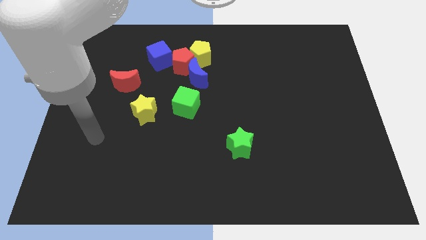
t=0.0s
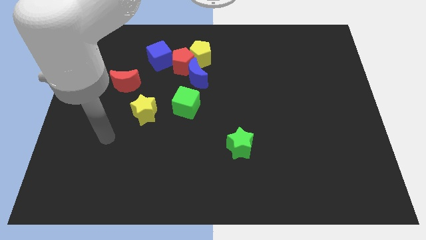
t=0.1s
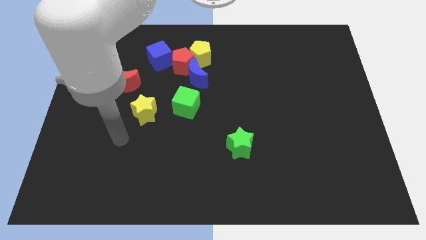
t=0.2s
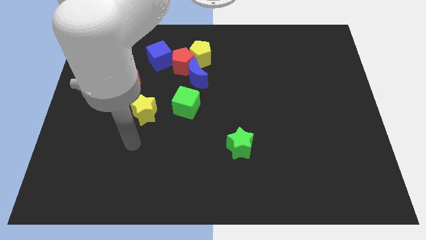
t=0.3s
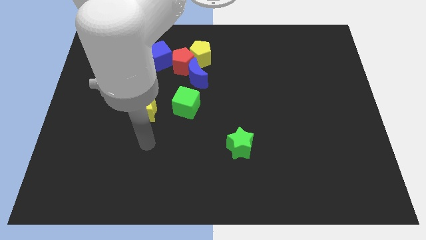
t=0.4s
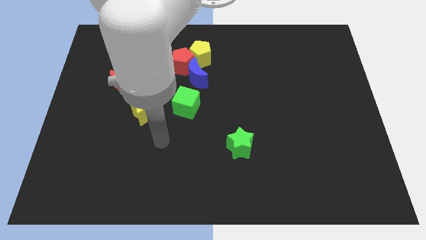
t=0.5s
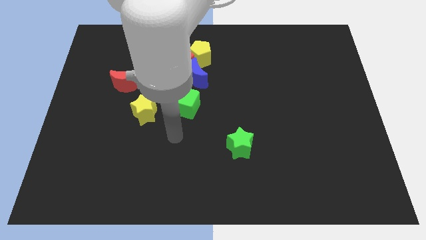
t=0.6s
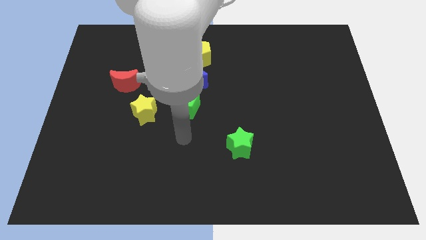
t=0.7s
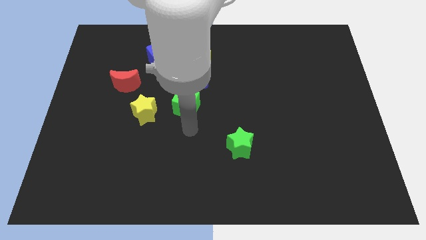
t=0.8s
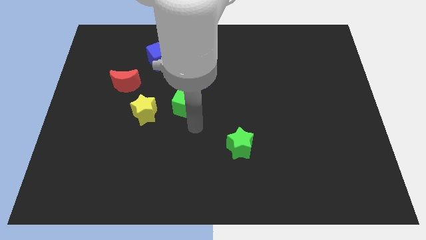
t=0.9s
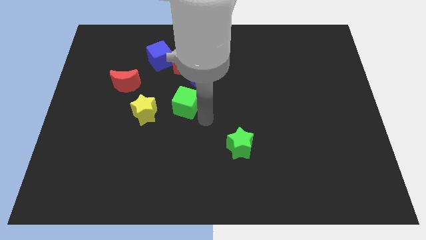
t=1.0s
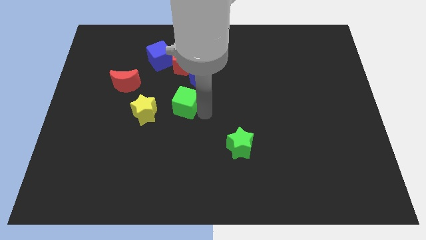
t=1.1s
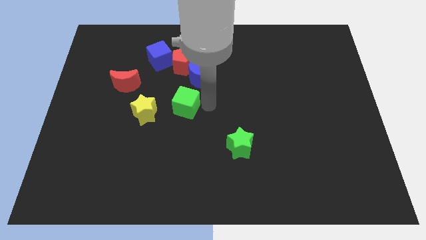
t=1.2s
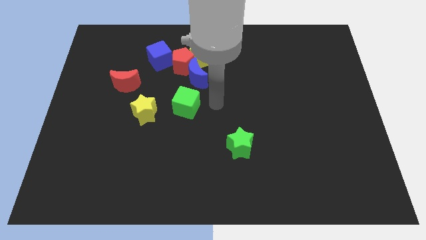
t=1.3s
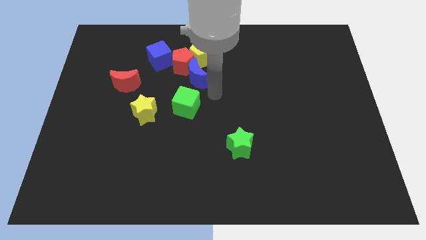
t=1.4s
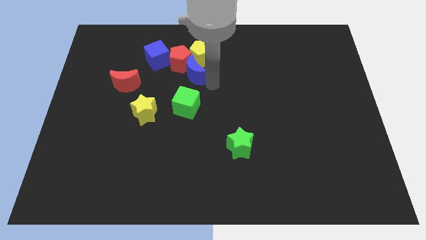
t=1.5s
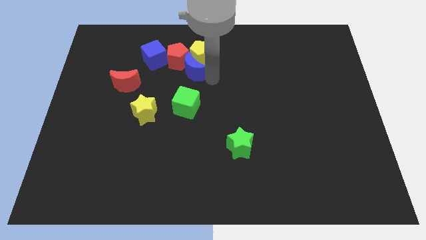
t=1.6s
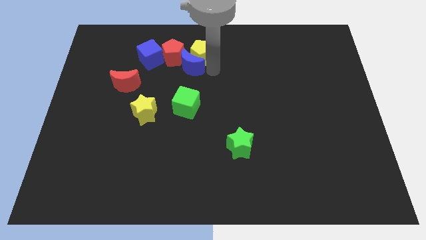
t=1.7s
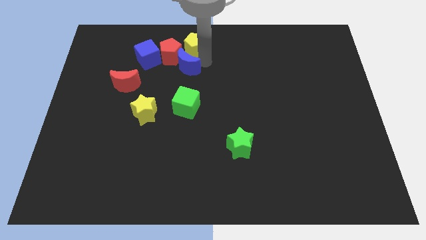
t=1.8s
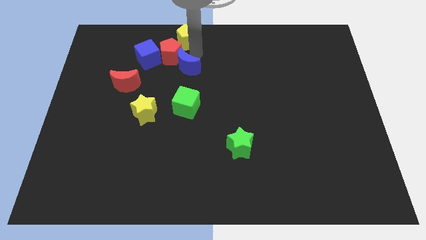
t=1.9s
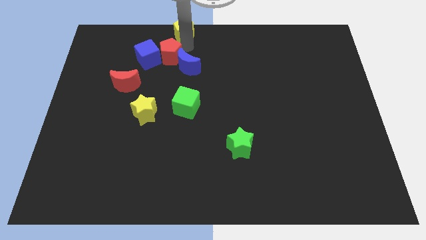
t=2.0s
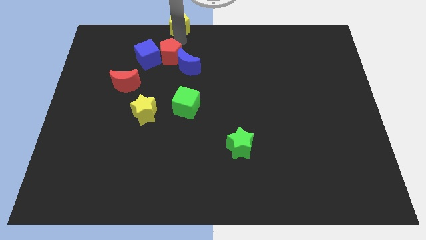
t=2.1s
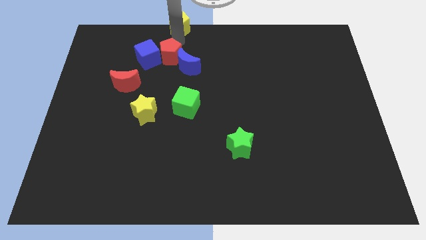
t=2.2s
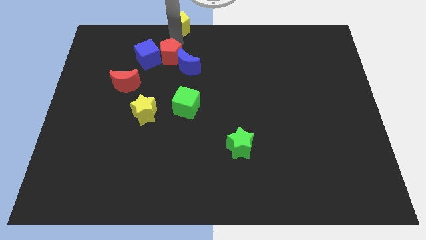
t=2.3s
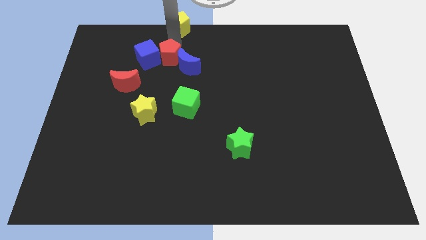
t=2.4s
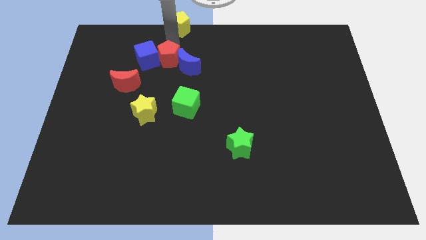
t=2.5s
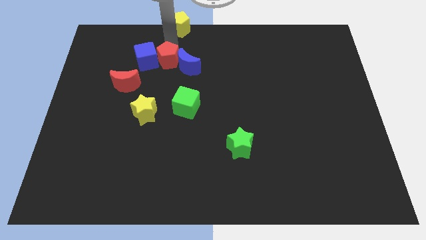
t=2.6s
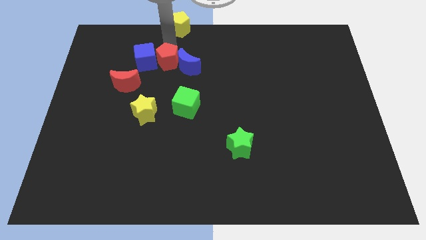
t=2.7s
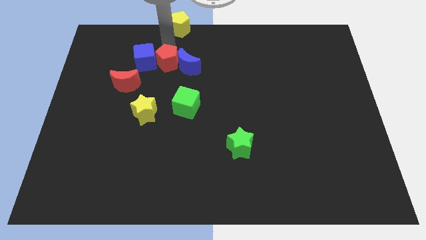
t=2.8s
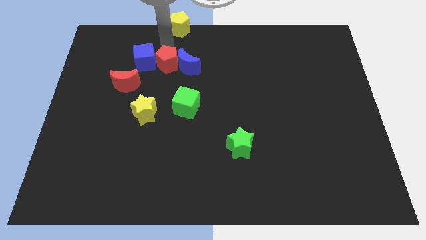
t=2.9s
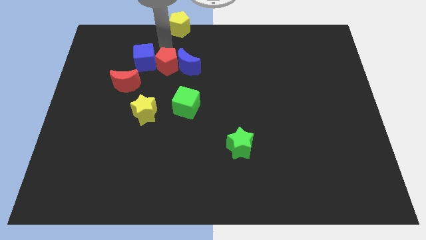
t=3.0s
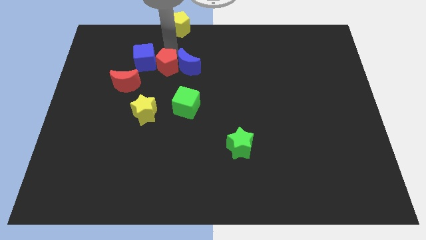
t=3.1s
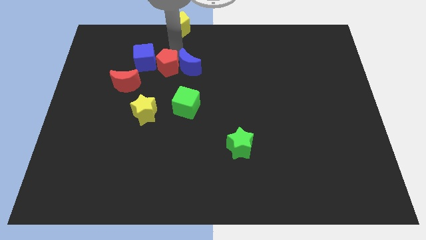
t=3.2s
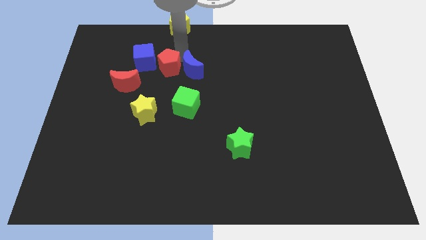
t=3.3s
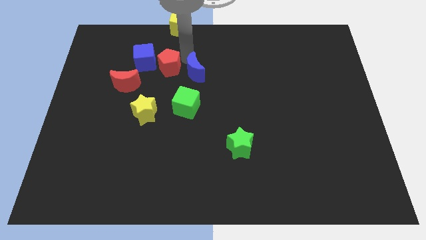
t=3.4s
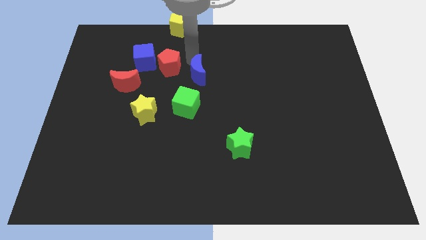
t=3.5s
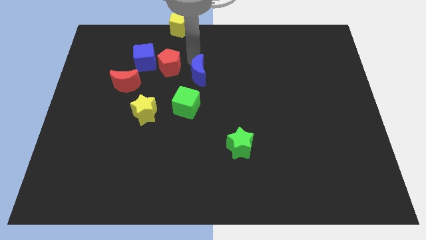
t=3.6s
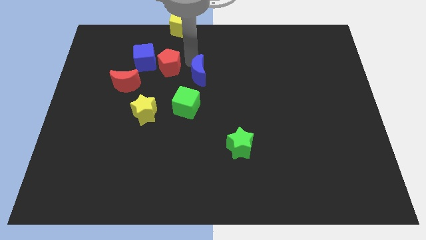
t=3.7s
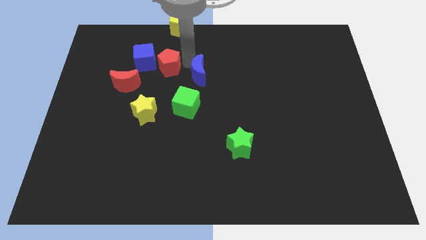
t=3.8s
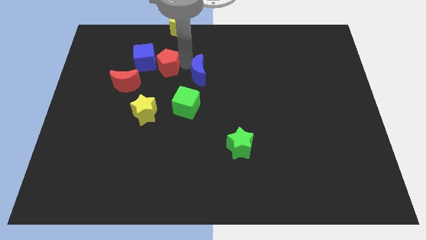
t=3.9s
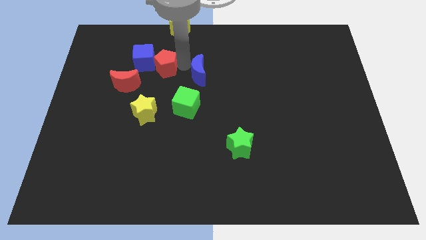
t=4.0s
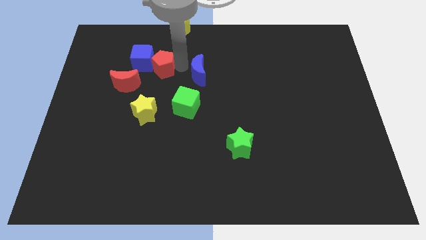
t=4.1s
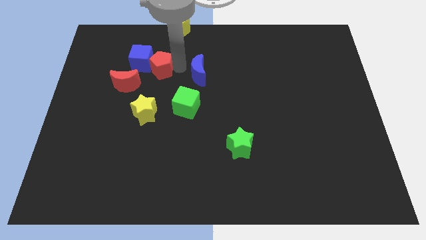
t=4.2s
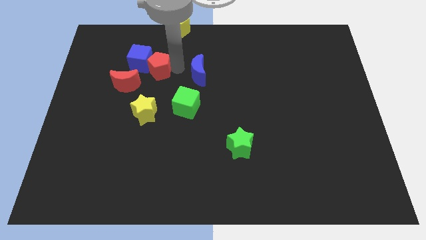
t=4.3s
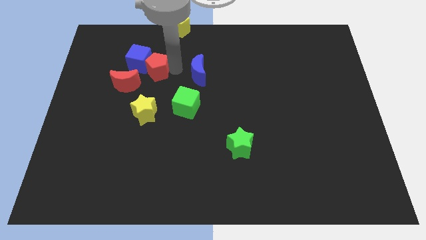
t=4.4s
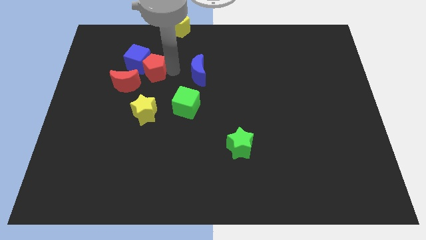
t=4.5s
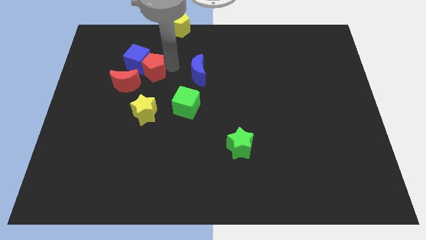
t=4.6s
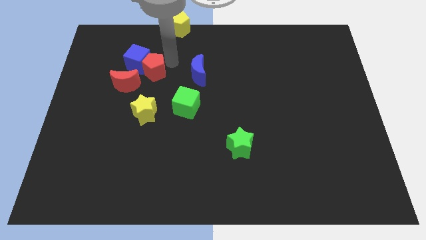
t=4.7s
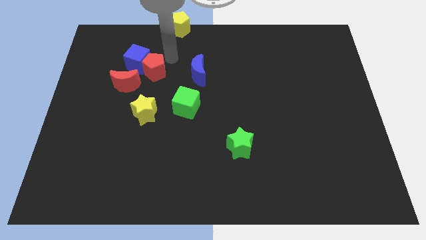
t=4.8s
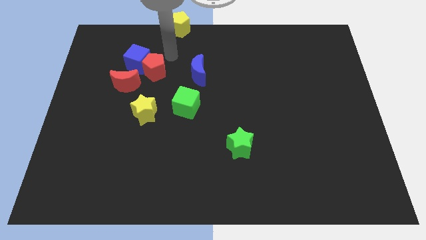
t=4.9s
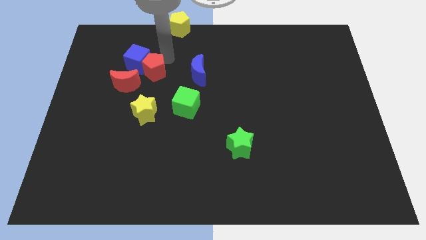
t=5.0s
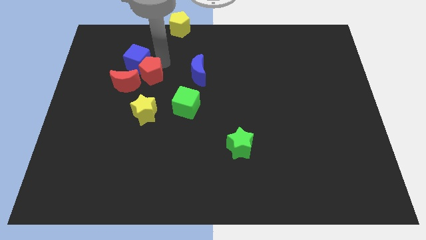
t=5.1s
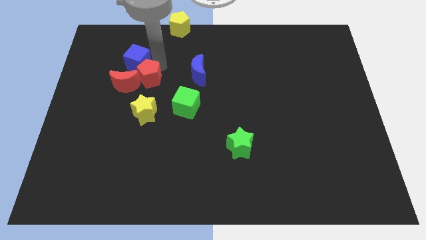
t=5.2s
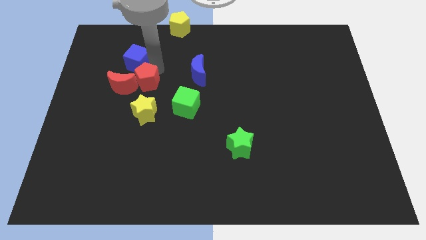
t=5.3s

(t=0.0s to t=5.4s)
separate the red pentagon from the group of blocks

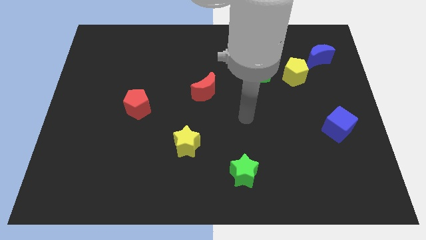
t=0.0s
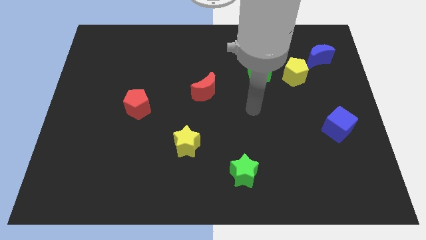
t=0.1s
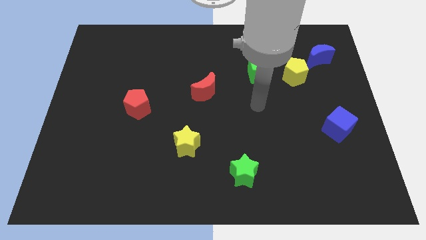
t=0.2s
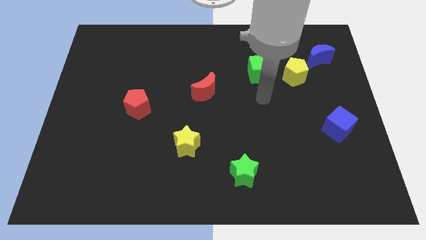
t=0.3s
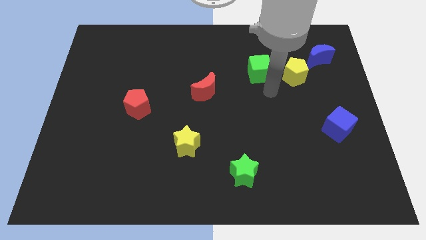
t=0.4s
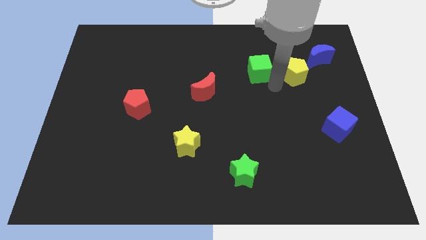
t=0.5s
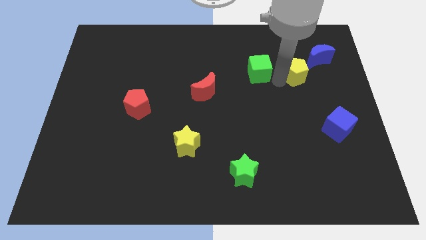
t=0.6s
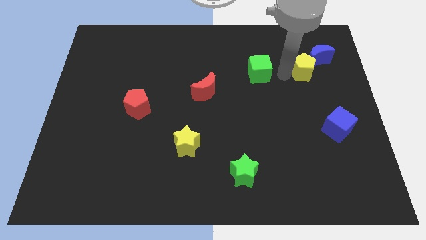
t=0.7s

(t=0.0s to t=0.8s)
pull the green cube apart from the yellow pentagon

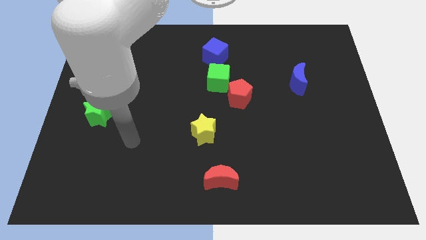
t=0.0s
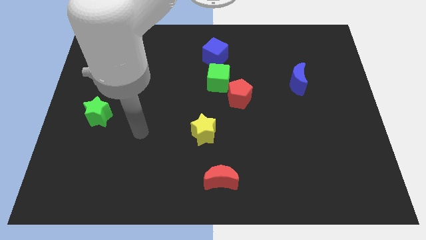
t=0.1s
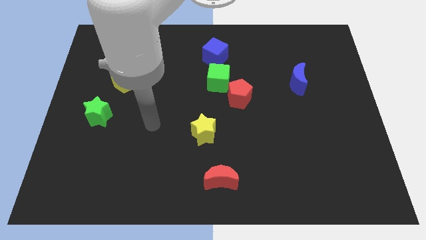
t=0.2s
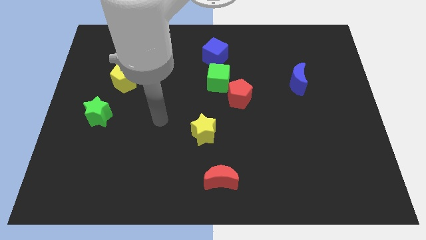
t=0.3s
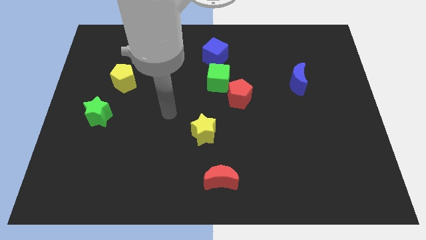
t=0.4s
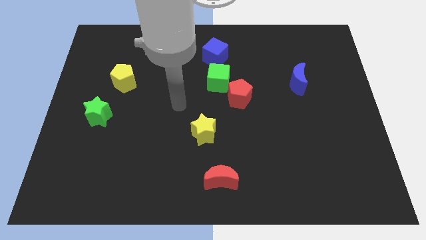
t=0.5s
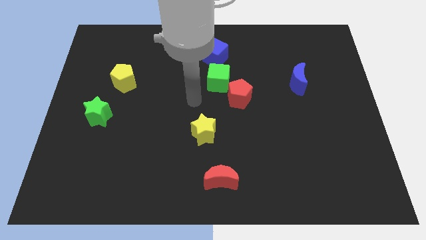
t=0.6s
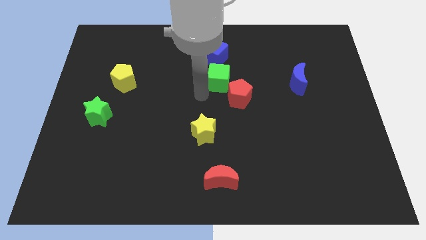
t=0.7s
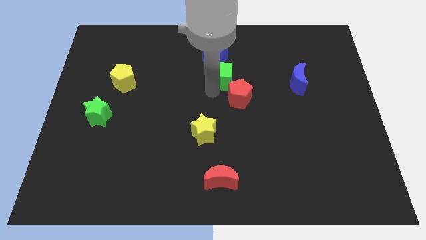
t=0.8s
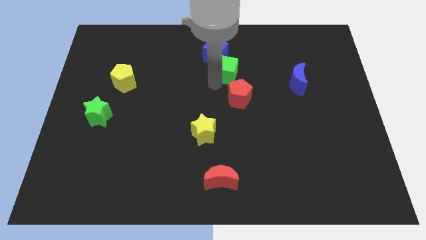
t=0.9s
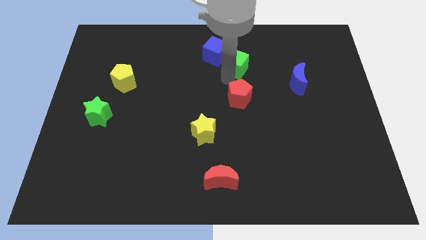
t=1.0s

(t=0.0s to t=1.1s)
separate the red pentagon from the green cube

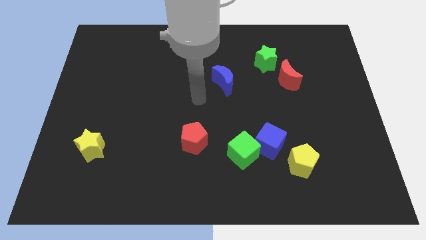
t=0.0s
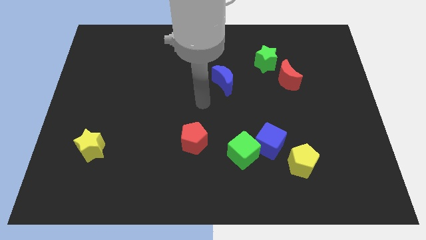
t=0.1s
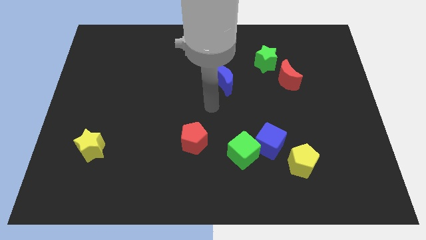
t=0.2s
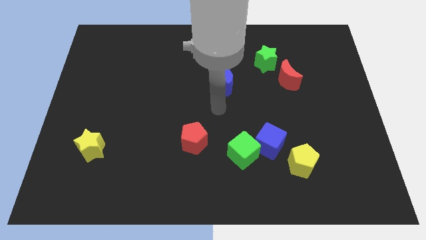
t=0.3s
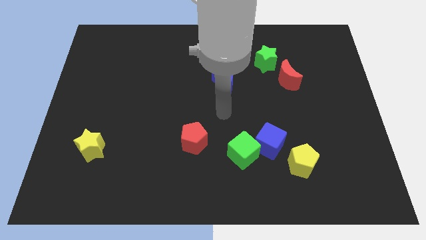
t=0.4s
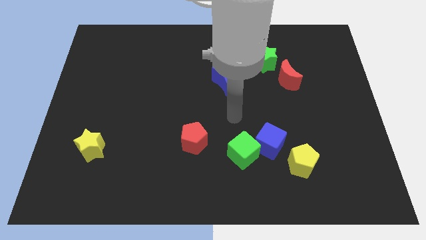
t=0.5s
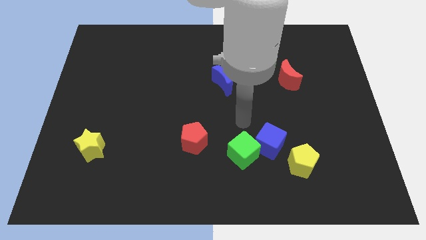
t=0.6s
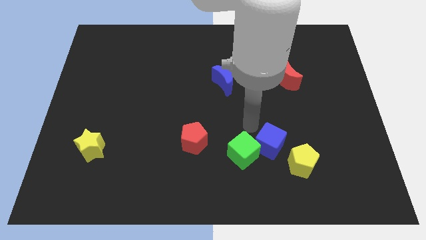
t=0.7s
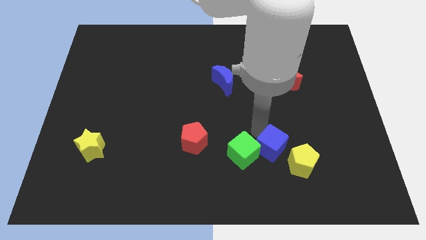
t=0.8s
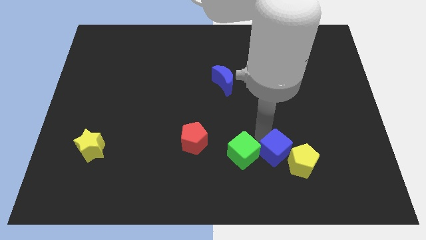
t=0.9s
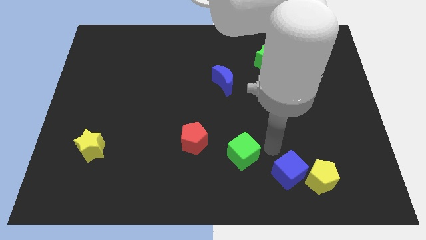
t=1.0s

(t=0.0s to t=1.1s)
separate the green cube from the blue cube

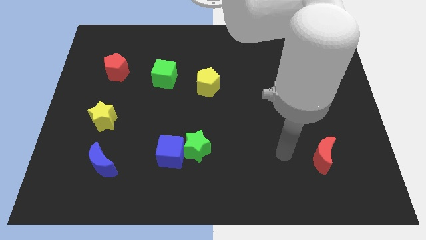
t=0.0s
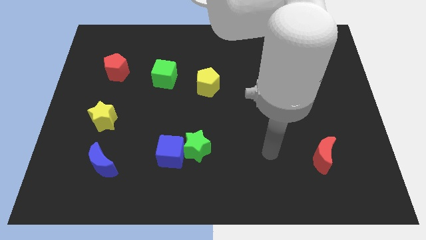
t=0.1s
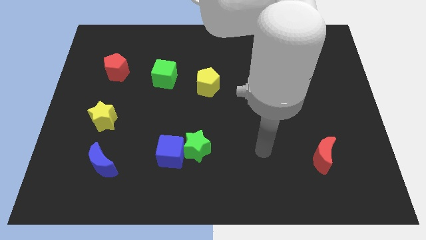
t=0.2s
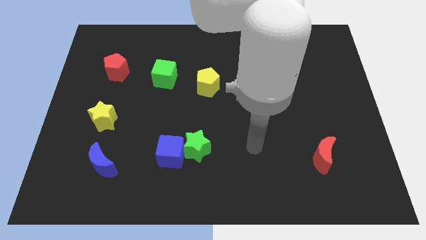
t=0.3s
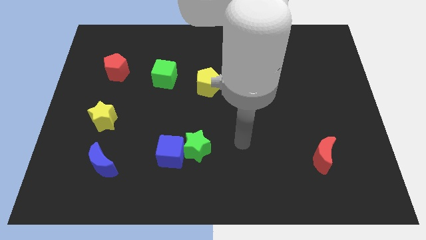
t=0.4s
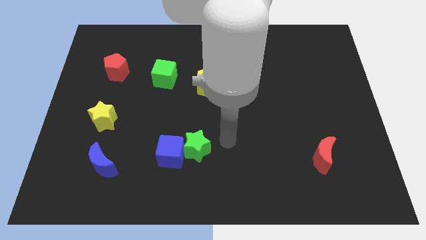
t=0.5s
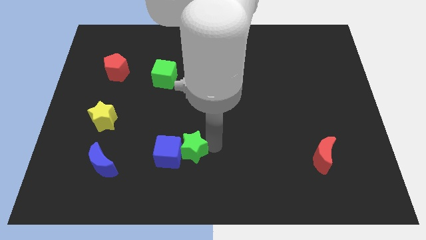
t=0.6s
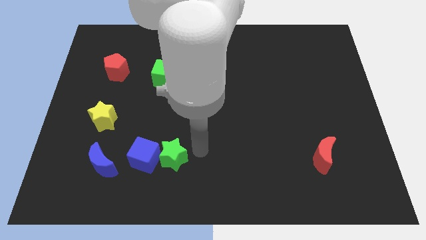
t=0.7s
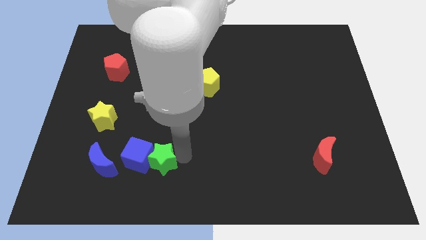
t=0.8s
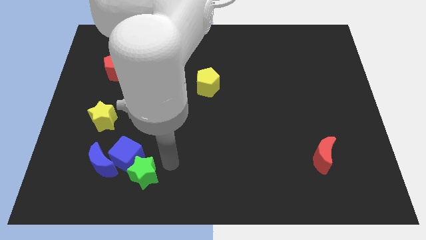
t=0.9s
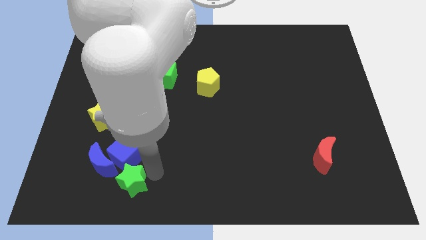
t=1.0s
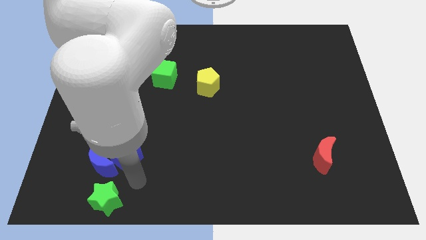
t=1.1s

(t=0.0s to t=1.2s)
separate the blue cube from the green star
